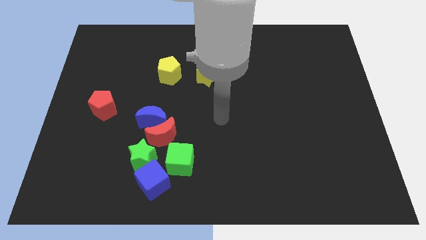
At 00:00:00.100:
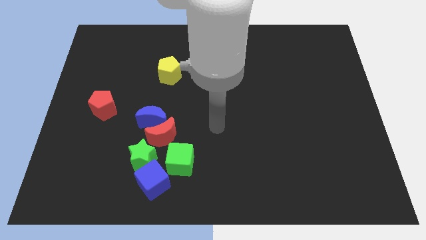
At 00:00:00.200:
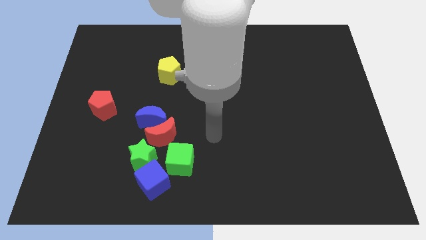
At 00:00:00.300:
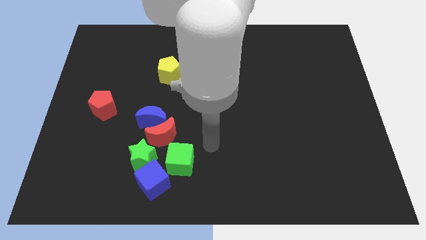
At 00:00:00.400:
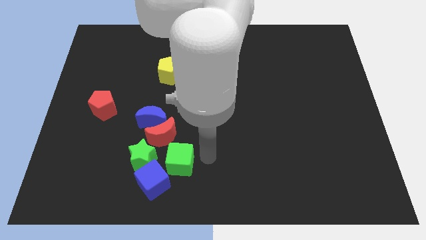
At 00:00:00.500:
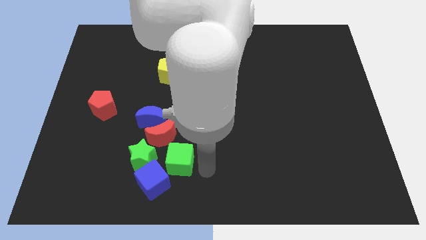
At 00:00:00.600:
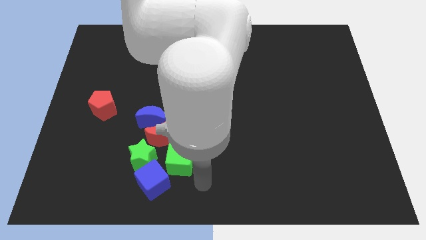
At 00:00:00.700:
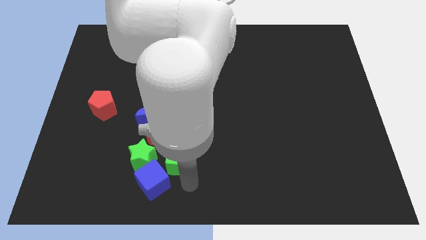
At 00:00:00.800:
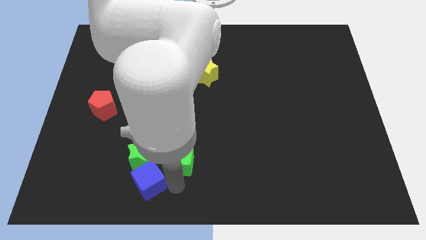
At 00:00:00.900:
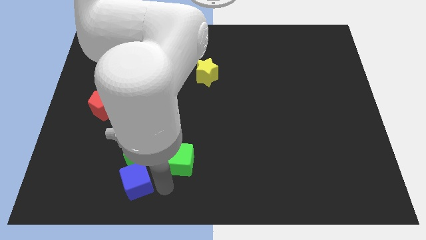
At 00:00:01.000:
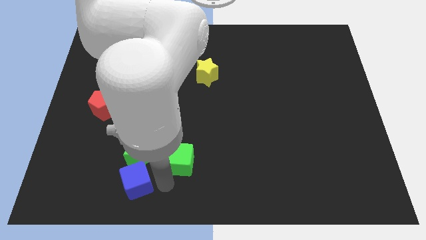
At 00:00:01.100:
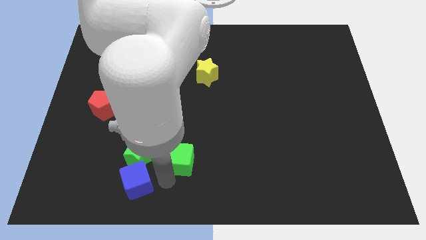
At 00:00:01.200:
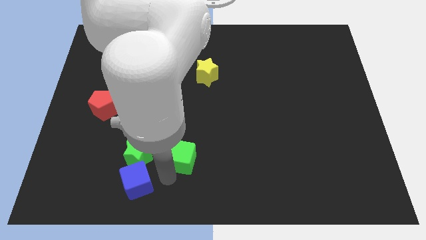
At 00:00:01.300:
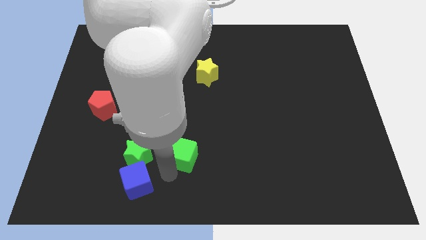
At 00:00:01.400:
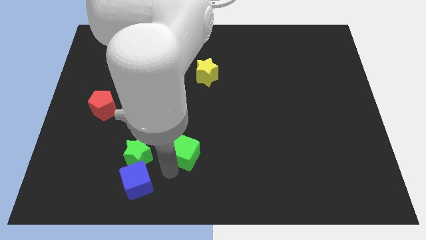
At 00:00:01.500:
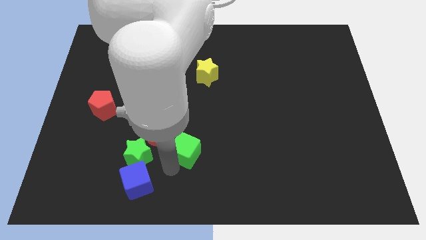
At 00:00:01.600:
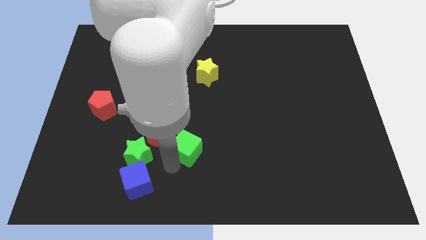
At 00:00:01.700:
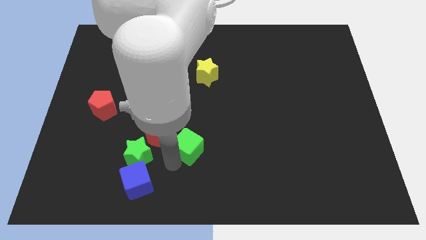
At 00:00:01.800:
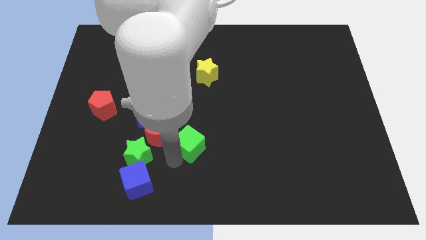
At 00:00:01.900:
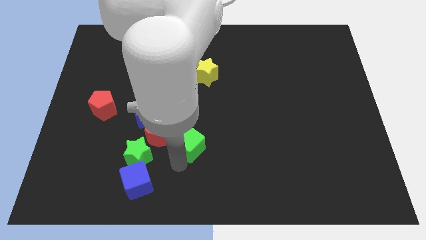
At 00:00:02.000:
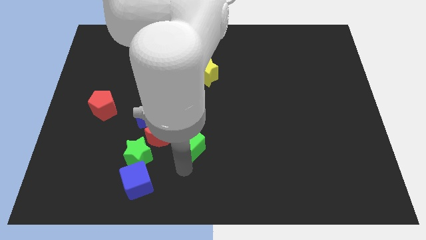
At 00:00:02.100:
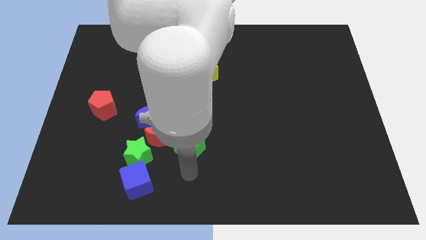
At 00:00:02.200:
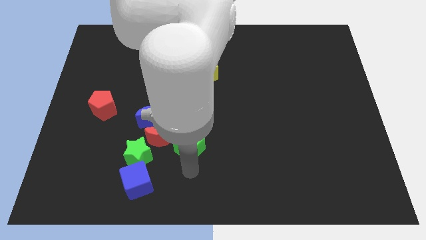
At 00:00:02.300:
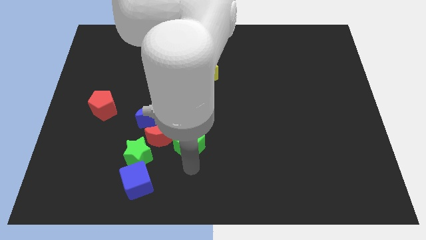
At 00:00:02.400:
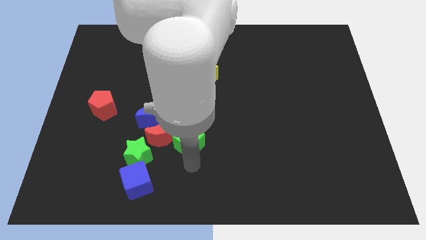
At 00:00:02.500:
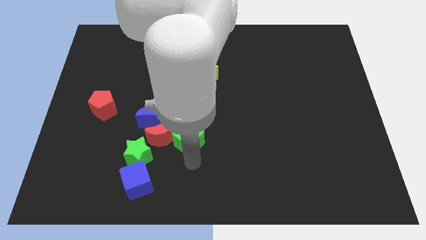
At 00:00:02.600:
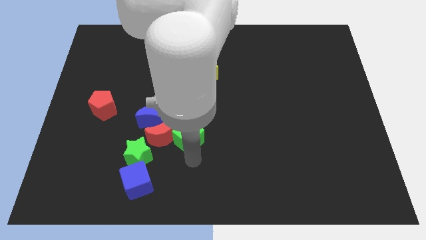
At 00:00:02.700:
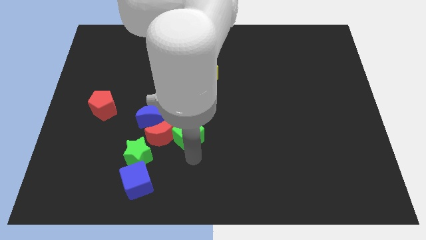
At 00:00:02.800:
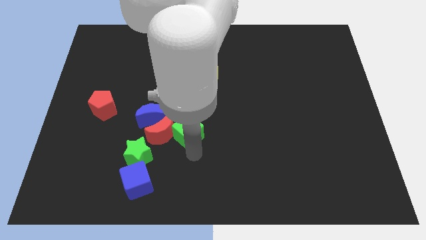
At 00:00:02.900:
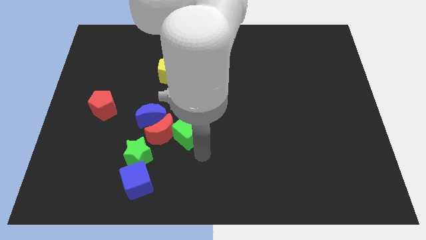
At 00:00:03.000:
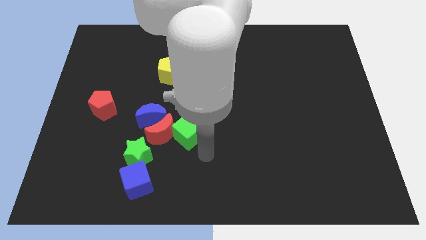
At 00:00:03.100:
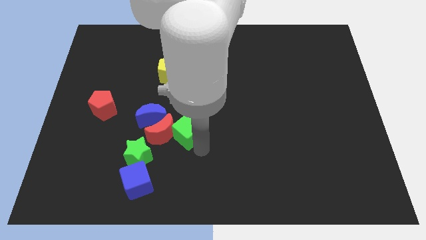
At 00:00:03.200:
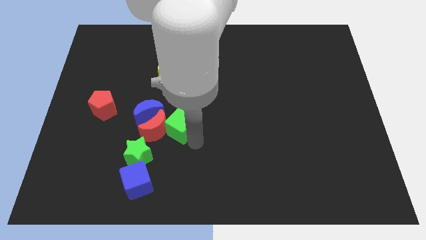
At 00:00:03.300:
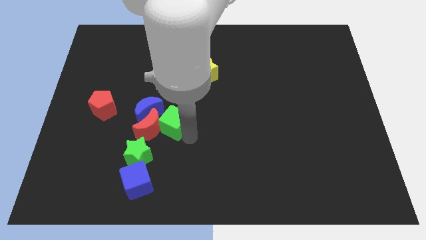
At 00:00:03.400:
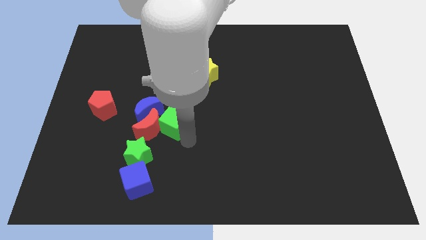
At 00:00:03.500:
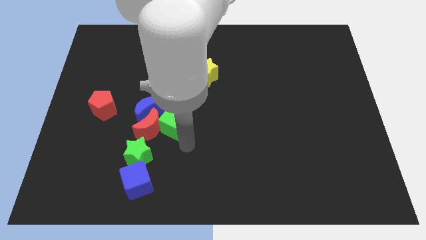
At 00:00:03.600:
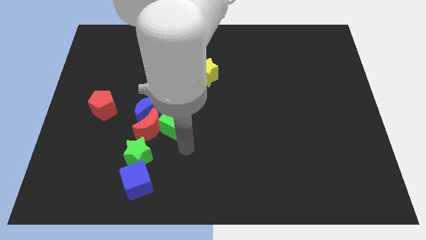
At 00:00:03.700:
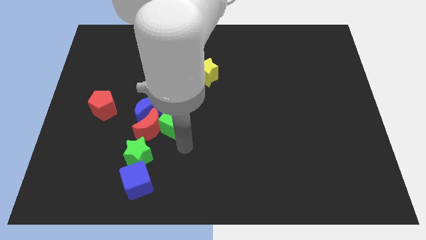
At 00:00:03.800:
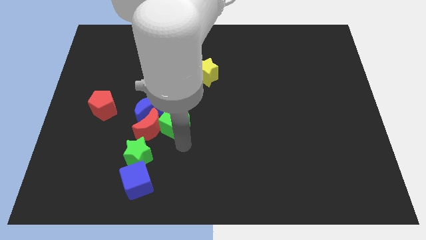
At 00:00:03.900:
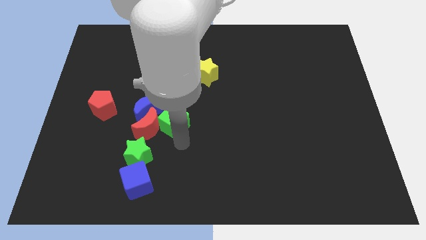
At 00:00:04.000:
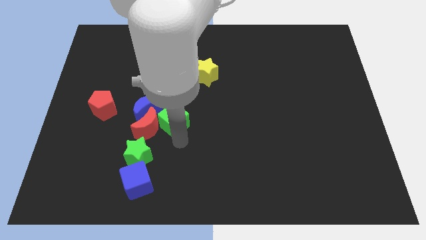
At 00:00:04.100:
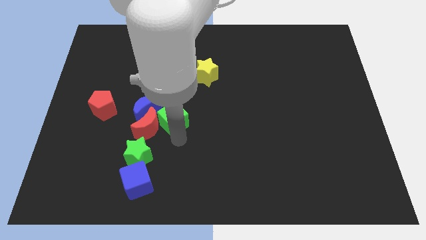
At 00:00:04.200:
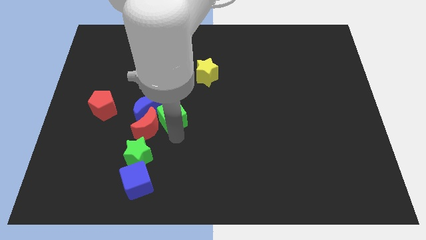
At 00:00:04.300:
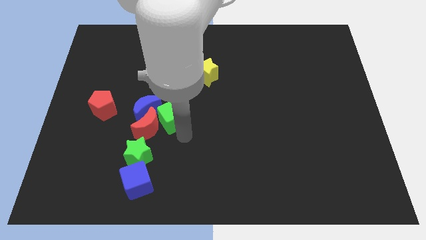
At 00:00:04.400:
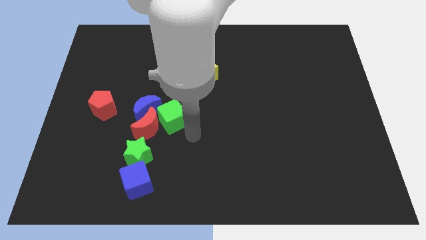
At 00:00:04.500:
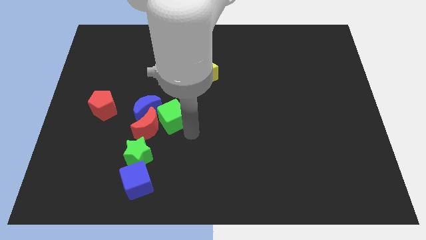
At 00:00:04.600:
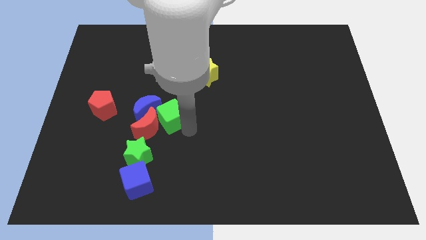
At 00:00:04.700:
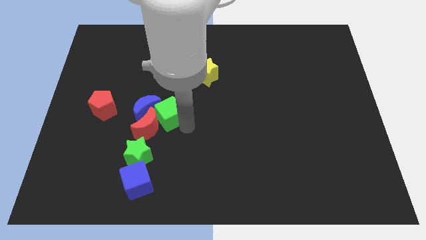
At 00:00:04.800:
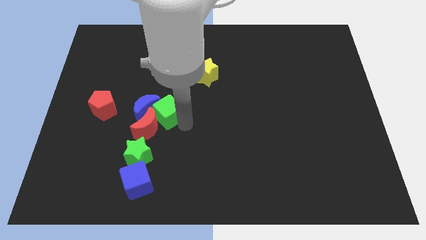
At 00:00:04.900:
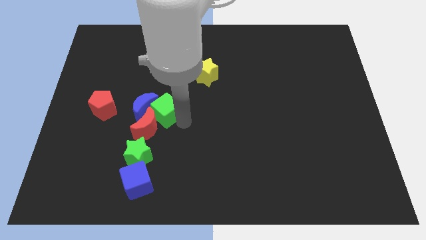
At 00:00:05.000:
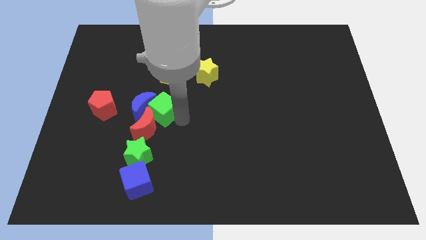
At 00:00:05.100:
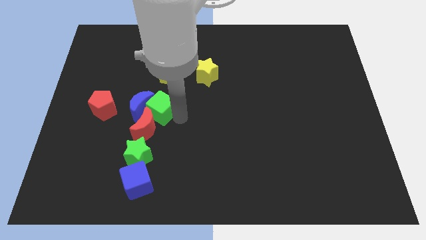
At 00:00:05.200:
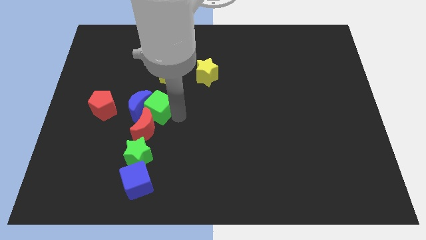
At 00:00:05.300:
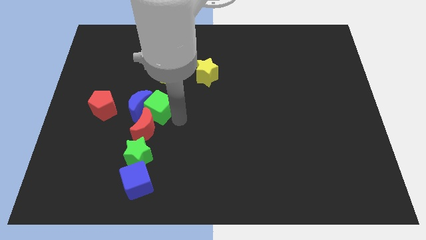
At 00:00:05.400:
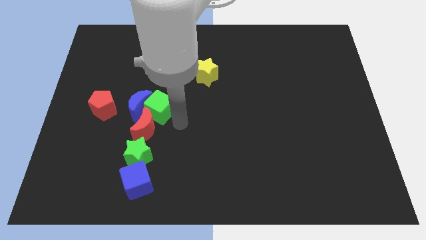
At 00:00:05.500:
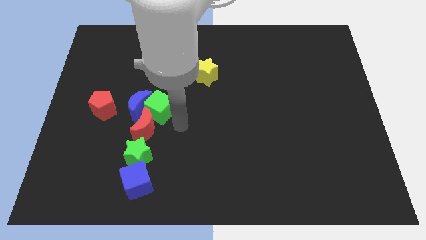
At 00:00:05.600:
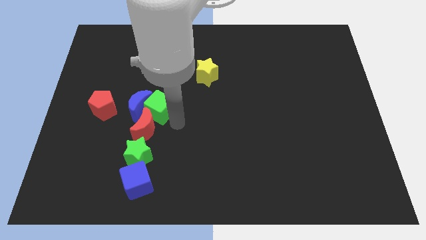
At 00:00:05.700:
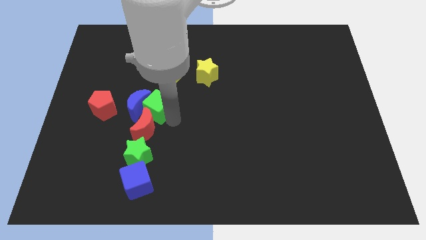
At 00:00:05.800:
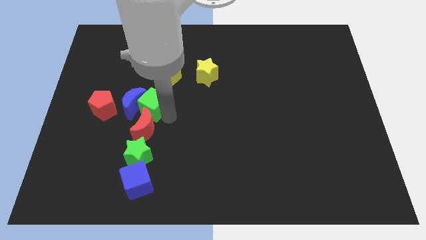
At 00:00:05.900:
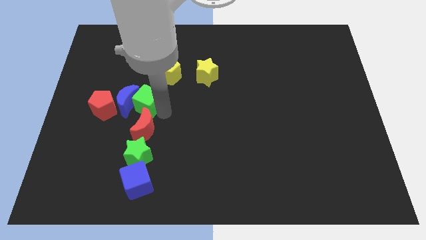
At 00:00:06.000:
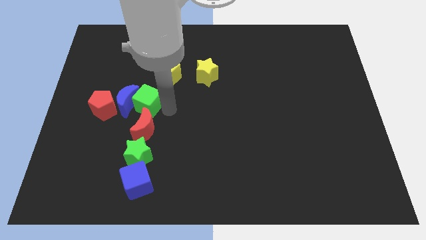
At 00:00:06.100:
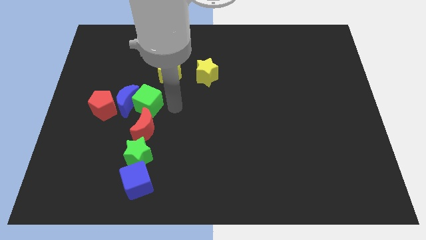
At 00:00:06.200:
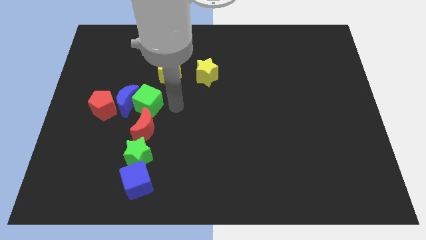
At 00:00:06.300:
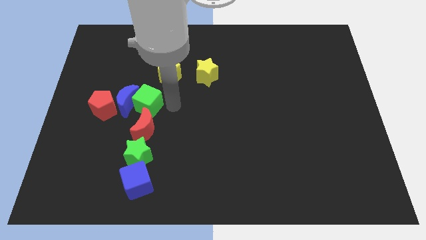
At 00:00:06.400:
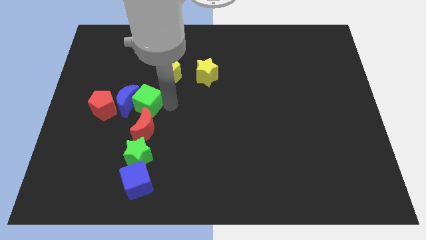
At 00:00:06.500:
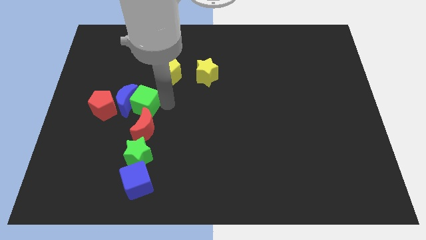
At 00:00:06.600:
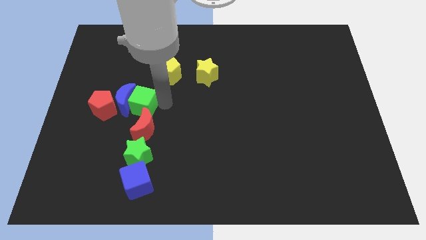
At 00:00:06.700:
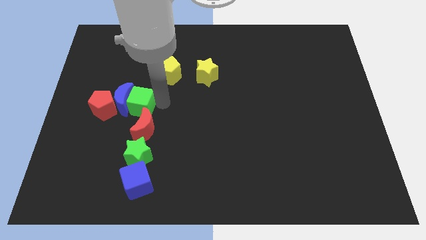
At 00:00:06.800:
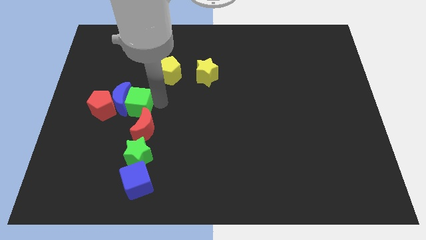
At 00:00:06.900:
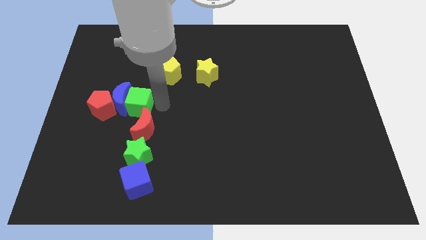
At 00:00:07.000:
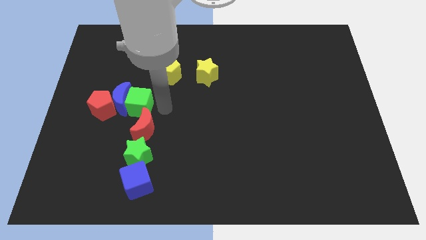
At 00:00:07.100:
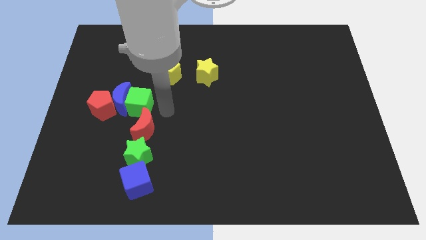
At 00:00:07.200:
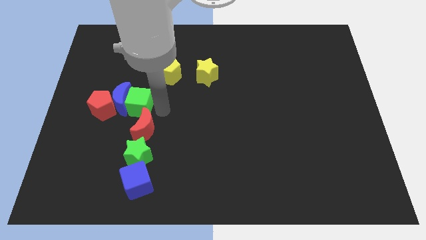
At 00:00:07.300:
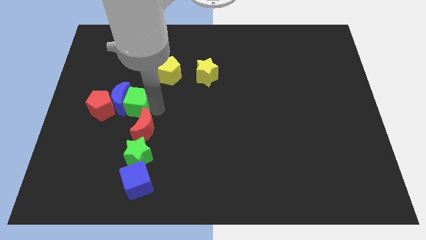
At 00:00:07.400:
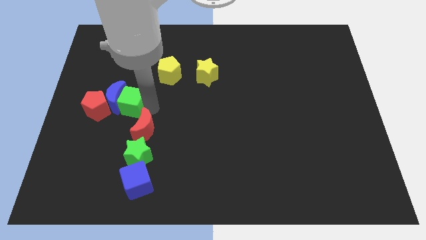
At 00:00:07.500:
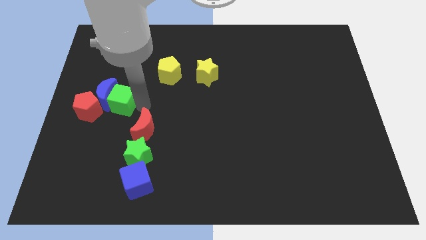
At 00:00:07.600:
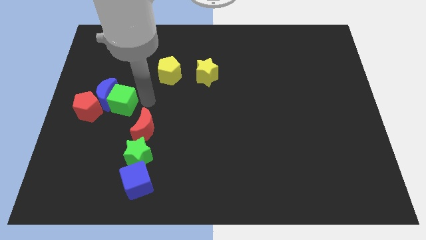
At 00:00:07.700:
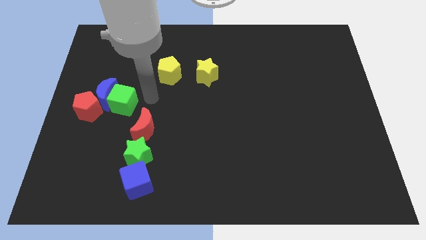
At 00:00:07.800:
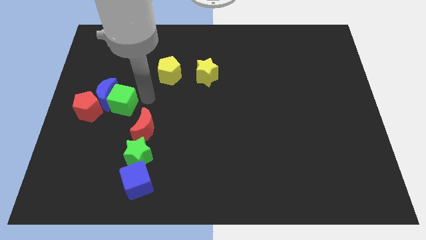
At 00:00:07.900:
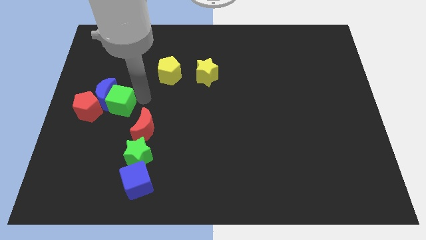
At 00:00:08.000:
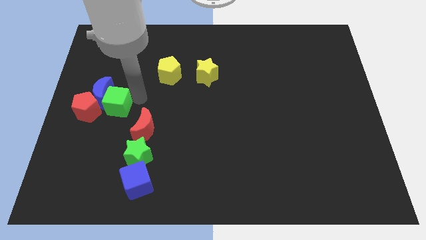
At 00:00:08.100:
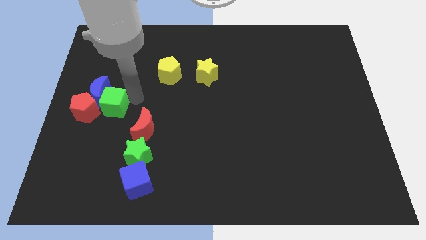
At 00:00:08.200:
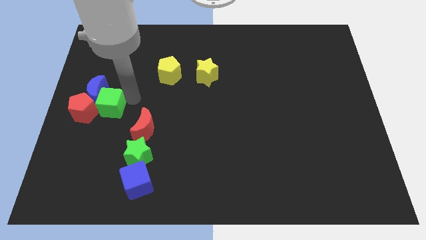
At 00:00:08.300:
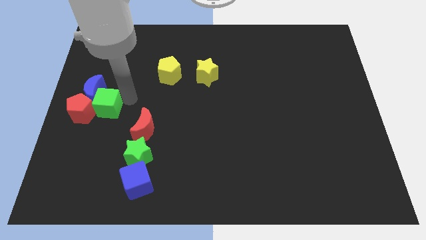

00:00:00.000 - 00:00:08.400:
push the green cube close to the red pentagon
